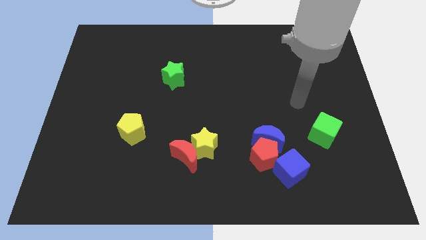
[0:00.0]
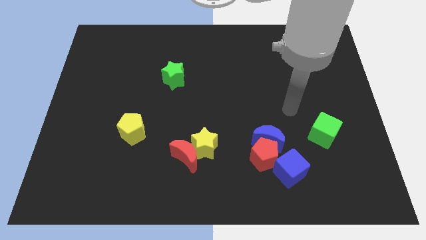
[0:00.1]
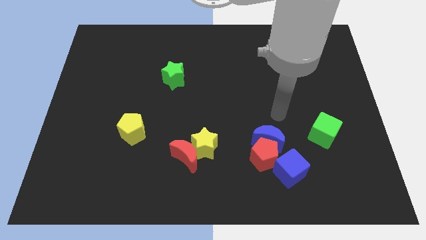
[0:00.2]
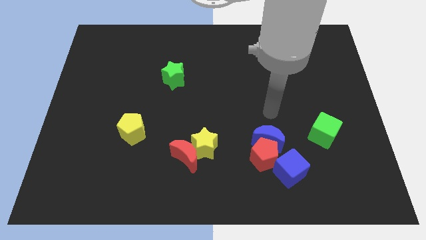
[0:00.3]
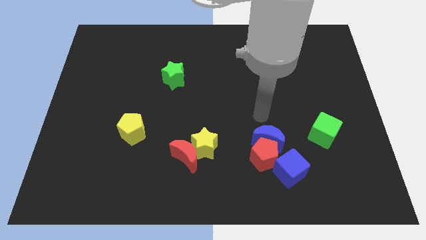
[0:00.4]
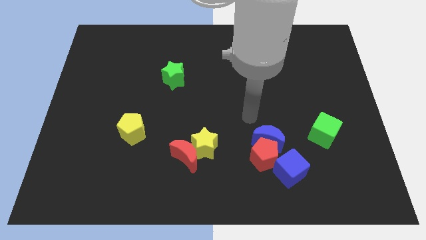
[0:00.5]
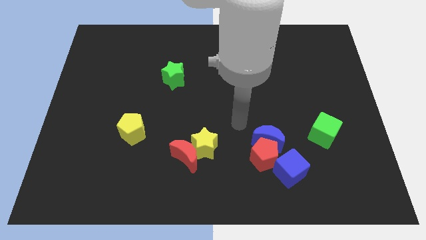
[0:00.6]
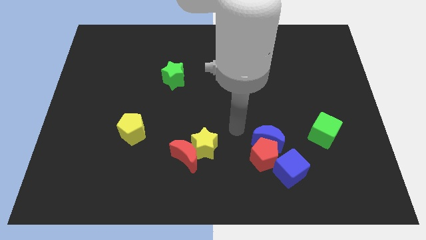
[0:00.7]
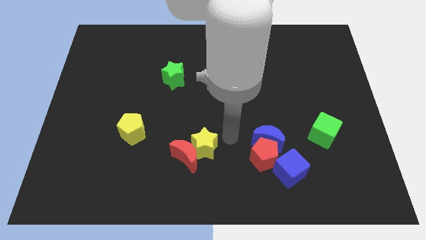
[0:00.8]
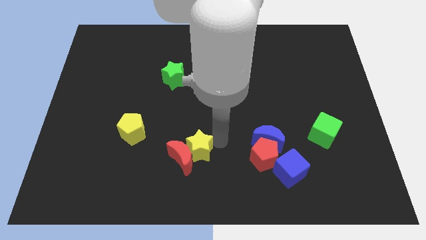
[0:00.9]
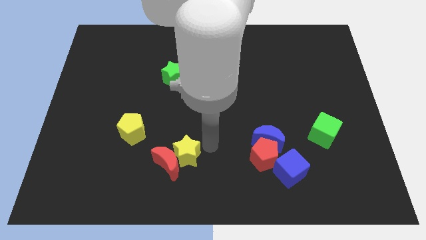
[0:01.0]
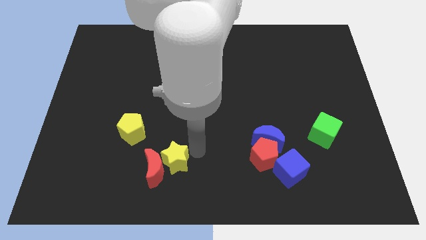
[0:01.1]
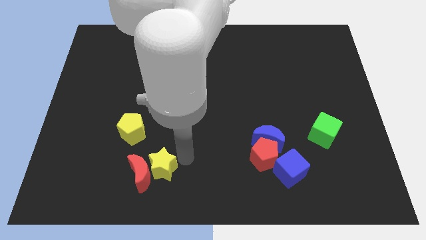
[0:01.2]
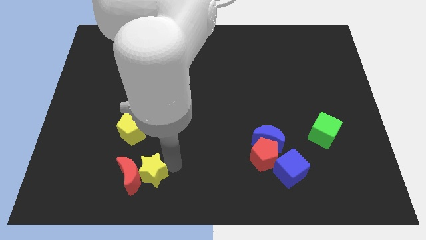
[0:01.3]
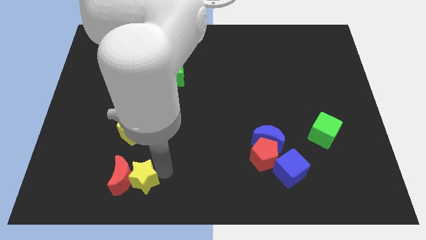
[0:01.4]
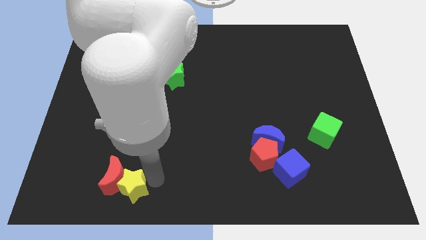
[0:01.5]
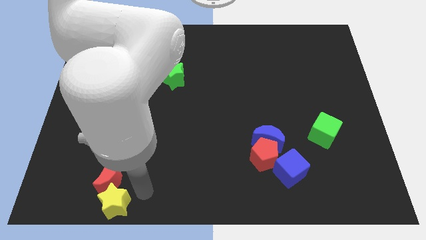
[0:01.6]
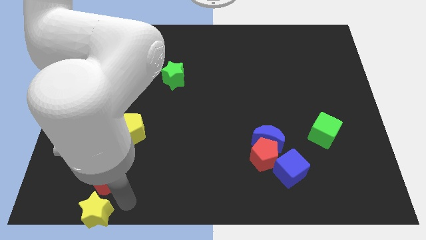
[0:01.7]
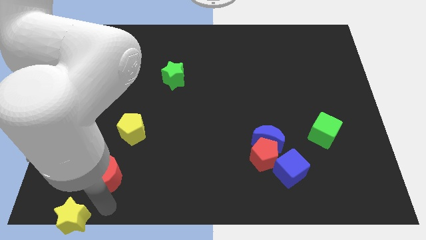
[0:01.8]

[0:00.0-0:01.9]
move the red moon away from the yellow star

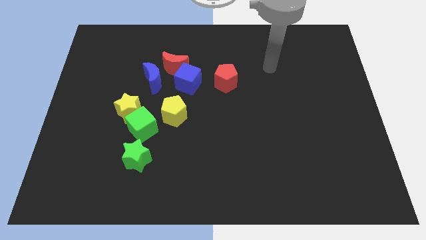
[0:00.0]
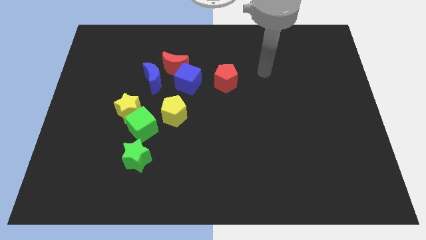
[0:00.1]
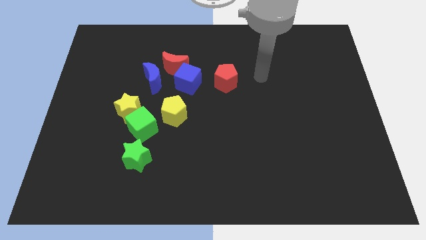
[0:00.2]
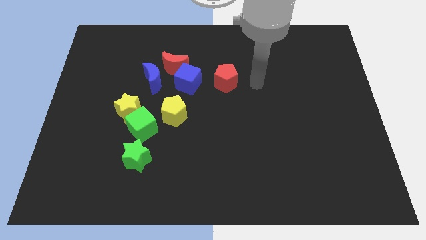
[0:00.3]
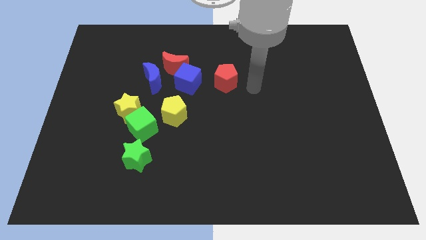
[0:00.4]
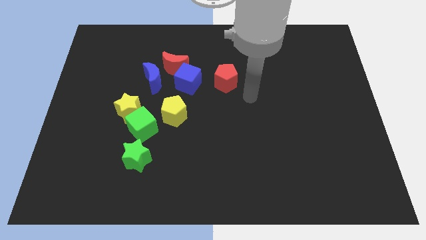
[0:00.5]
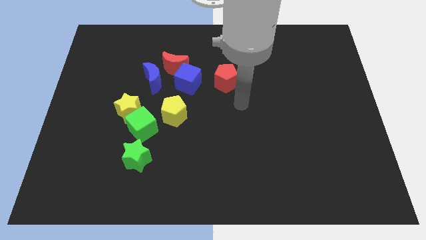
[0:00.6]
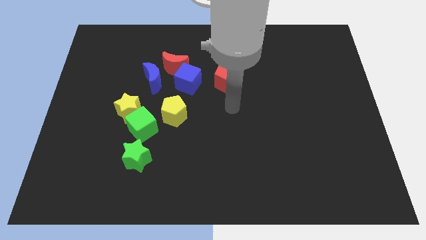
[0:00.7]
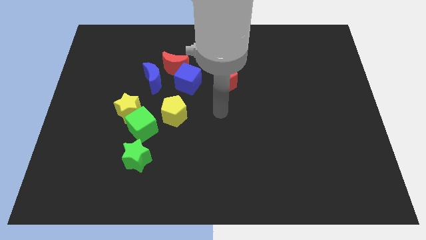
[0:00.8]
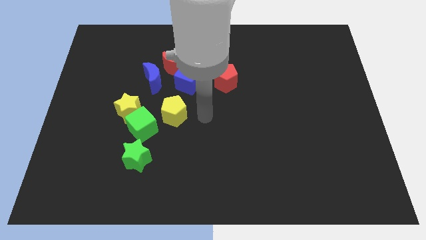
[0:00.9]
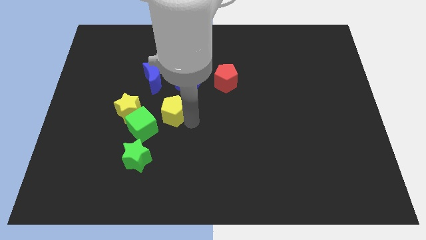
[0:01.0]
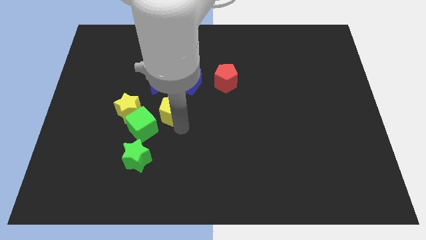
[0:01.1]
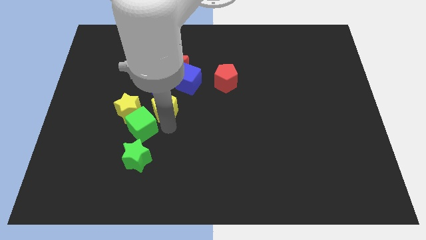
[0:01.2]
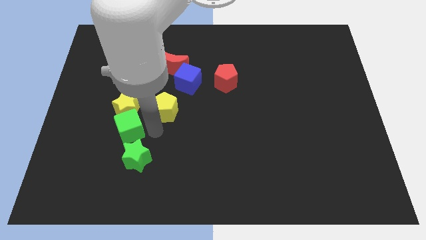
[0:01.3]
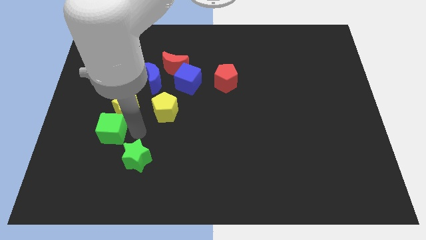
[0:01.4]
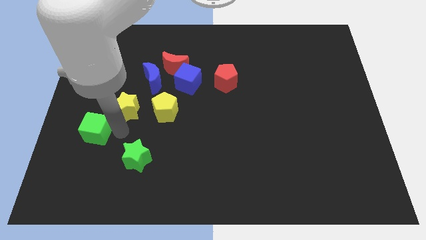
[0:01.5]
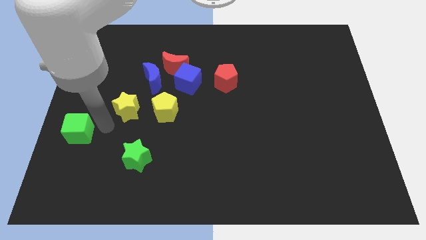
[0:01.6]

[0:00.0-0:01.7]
pull the yellow star apart from the green cube

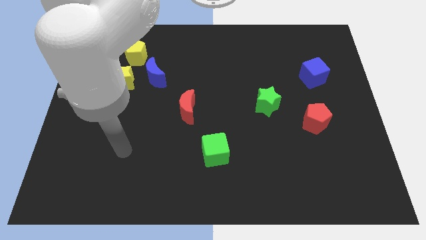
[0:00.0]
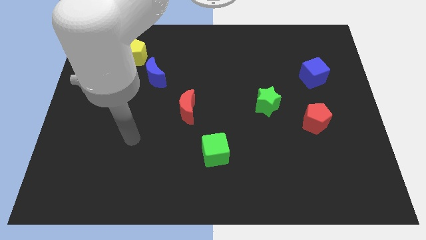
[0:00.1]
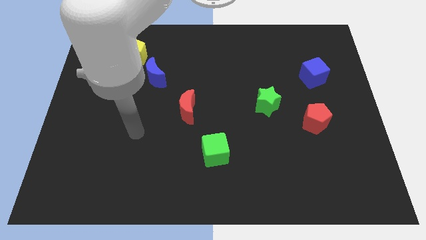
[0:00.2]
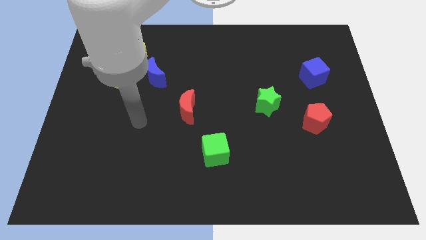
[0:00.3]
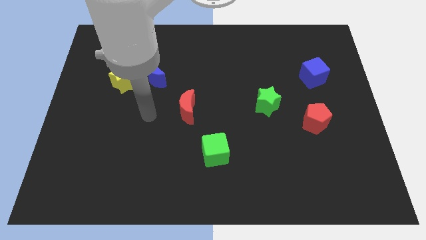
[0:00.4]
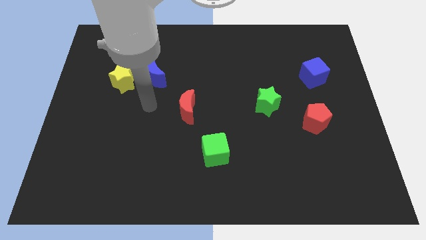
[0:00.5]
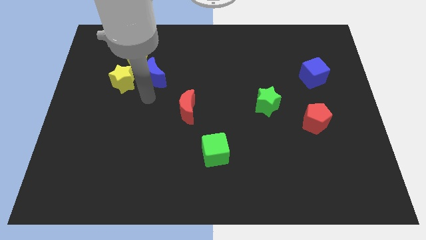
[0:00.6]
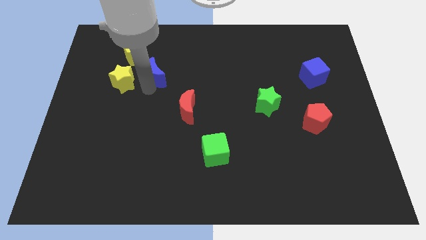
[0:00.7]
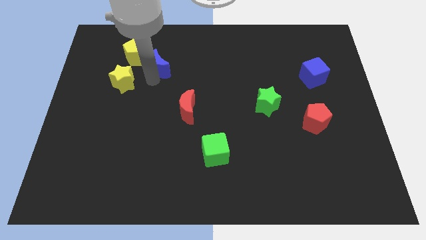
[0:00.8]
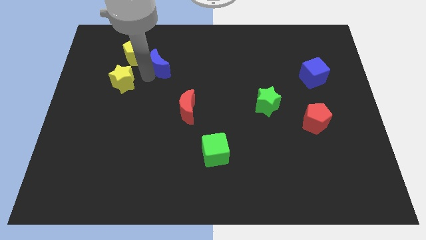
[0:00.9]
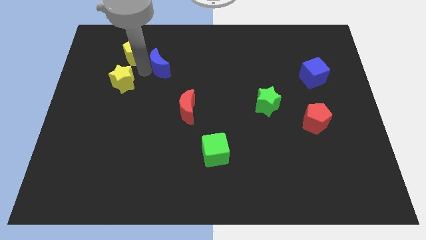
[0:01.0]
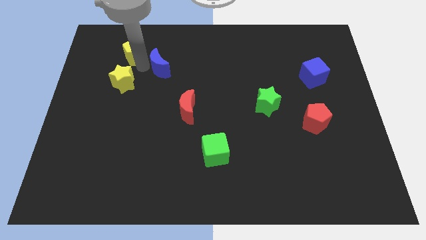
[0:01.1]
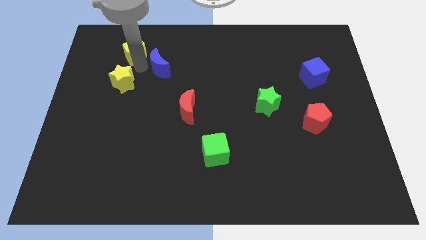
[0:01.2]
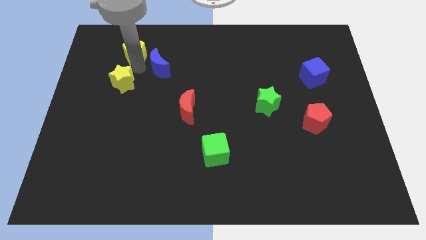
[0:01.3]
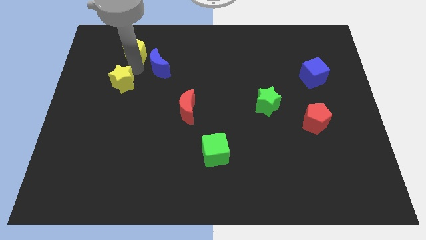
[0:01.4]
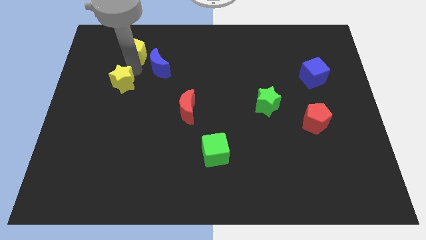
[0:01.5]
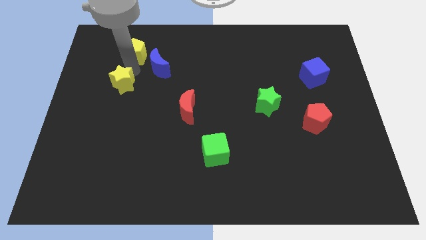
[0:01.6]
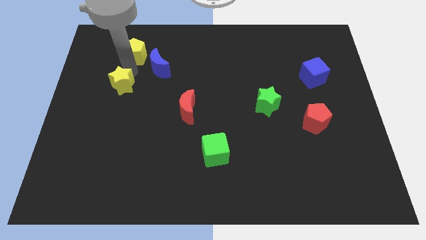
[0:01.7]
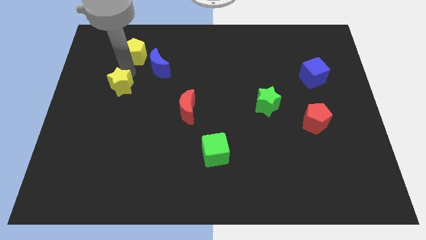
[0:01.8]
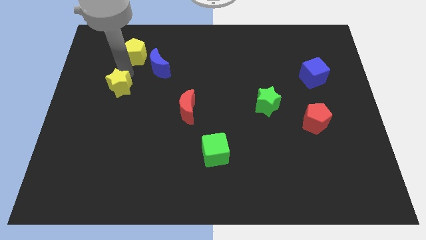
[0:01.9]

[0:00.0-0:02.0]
separate the yellow star from the blue moon and yellow pentagon

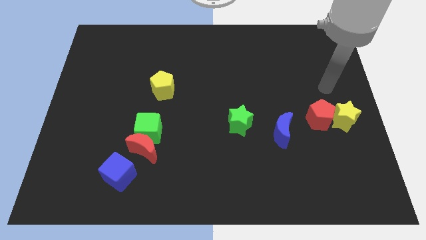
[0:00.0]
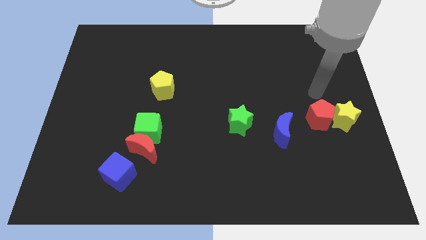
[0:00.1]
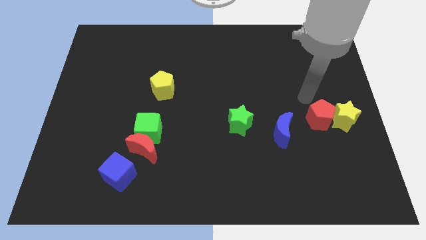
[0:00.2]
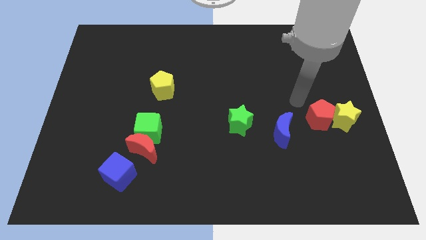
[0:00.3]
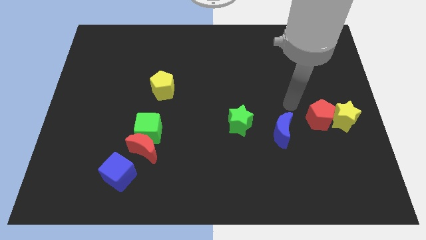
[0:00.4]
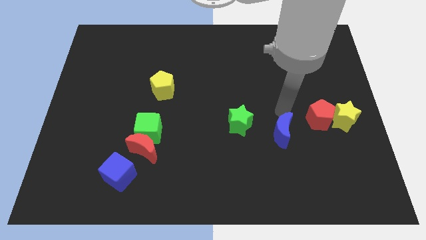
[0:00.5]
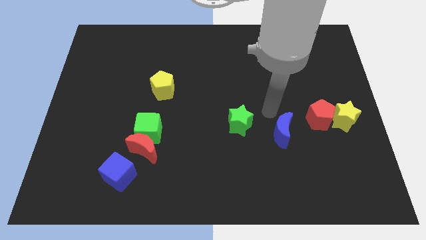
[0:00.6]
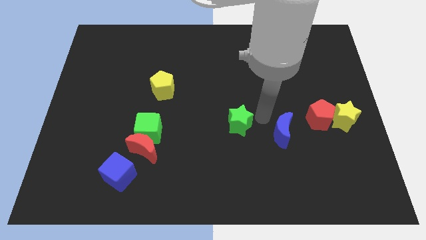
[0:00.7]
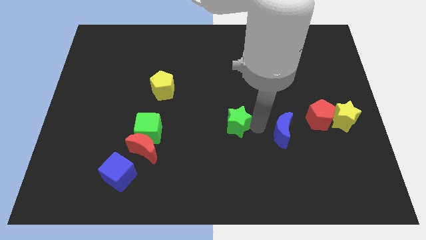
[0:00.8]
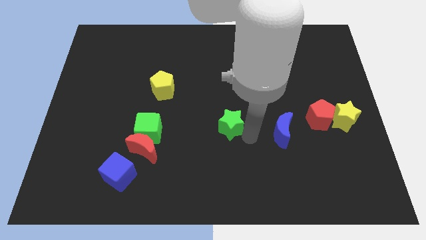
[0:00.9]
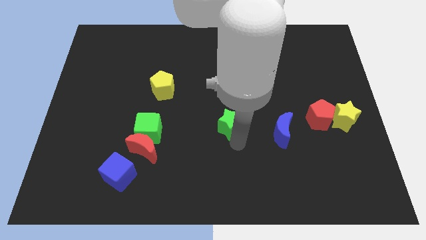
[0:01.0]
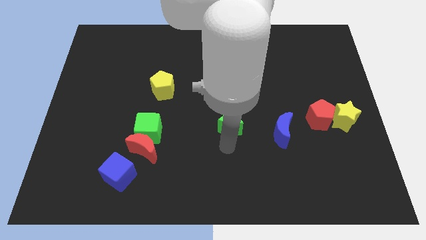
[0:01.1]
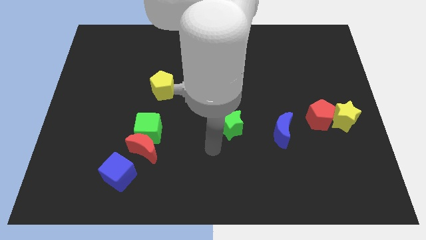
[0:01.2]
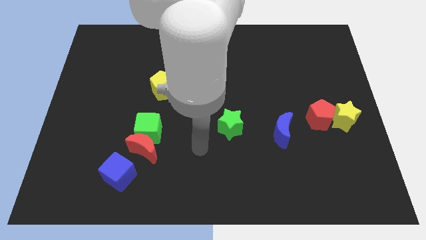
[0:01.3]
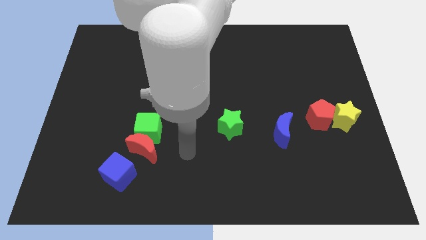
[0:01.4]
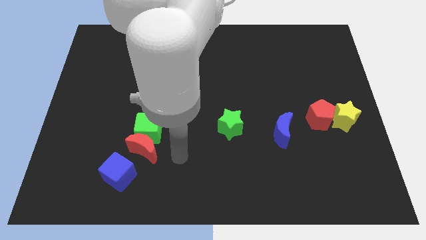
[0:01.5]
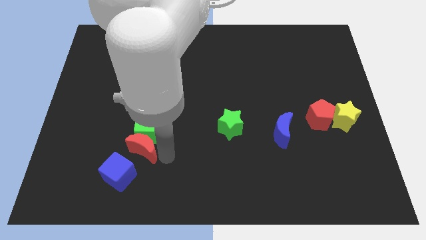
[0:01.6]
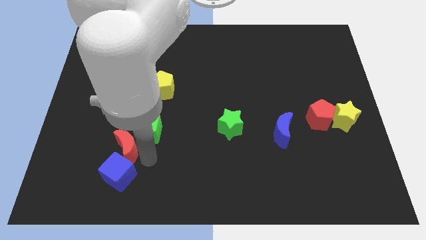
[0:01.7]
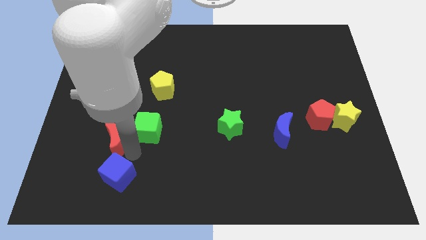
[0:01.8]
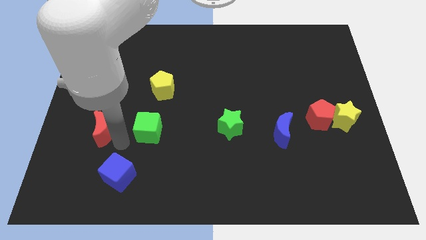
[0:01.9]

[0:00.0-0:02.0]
separate the green cube from the red moon

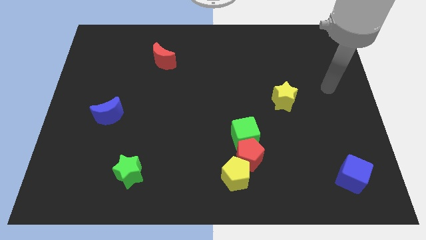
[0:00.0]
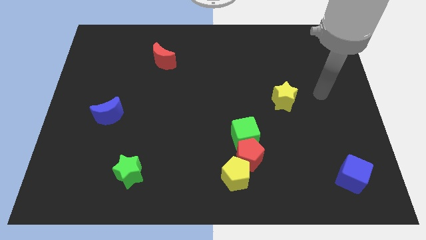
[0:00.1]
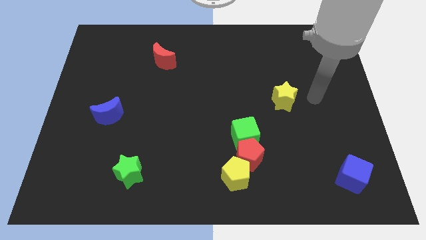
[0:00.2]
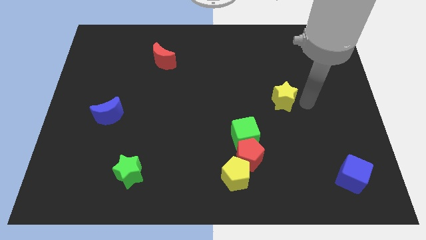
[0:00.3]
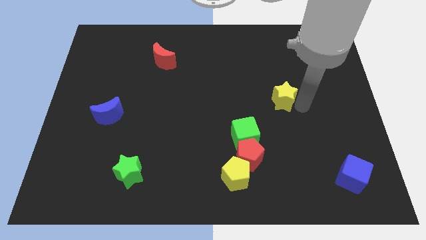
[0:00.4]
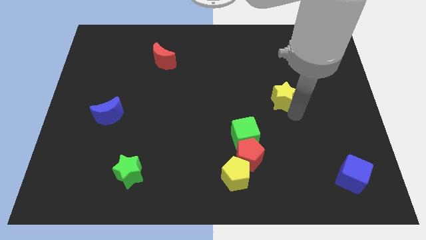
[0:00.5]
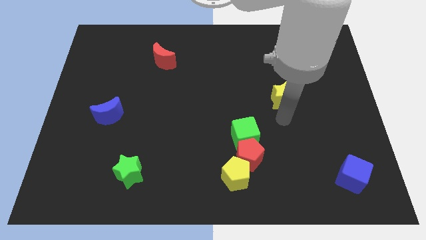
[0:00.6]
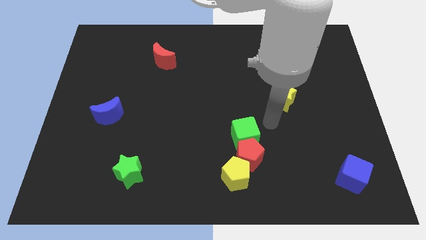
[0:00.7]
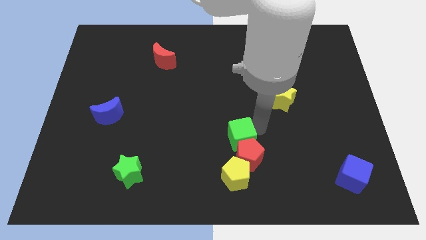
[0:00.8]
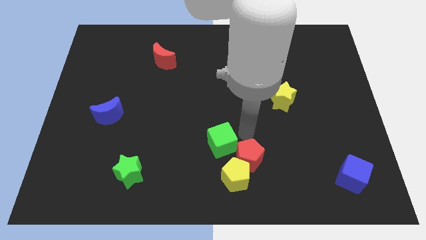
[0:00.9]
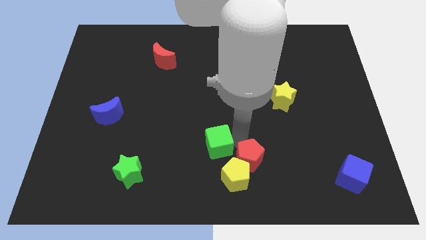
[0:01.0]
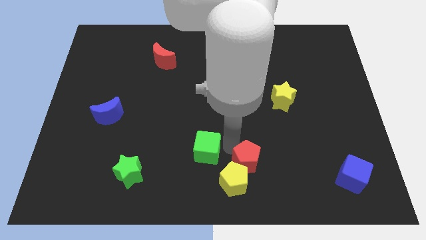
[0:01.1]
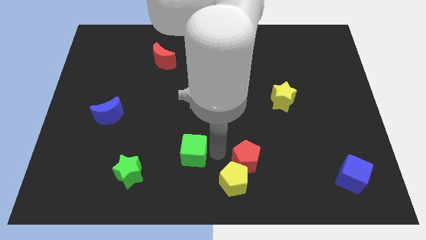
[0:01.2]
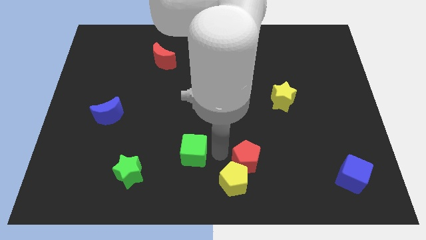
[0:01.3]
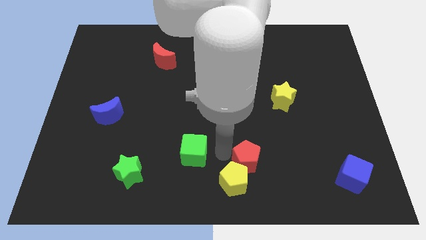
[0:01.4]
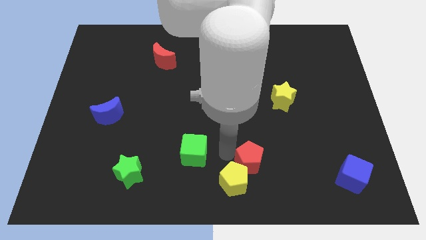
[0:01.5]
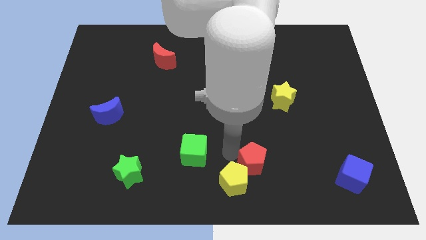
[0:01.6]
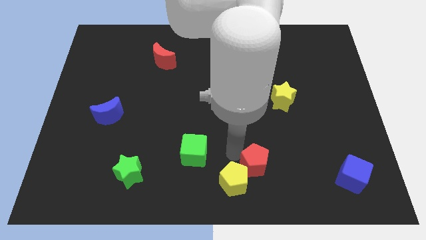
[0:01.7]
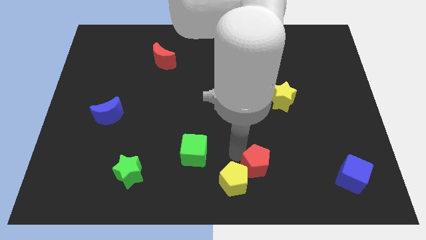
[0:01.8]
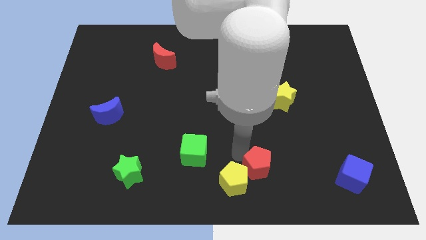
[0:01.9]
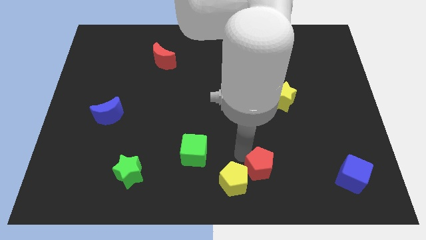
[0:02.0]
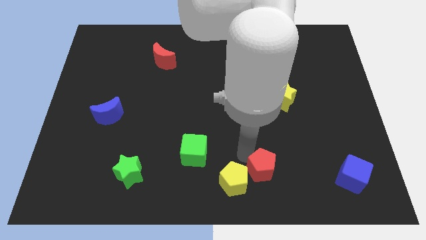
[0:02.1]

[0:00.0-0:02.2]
move the red pentagon away from the yellow pentagon and green cube
